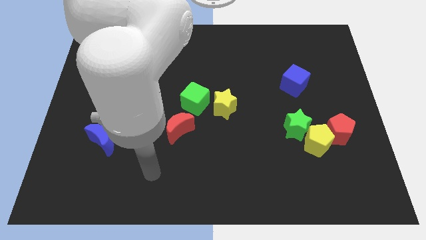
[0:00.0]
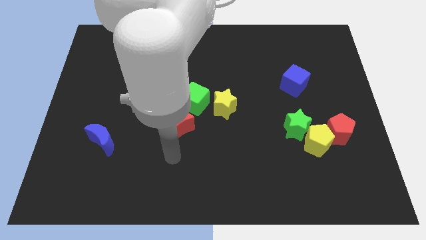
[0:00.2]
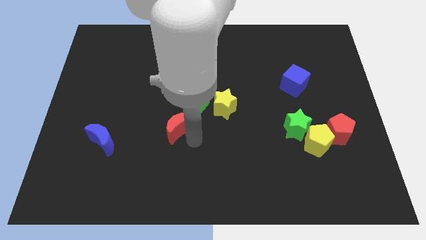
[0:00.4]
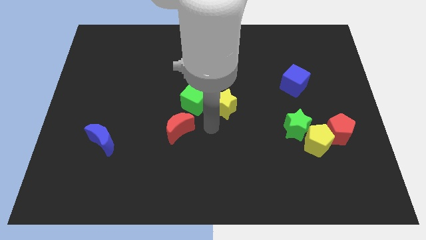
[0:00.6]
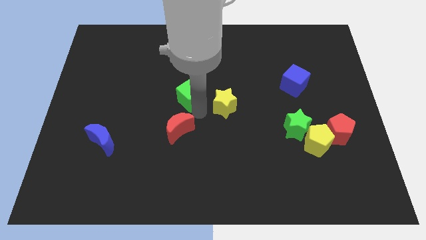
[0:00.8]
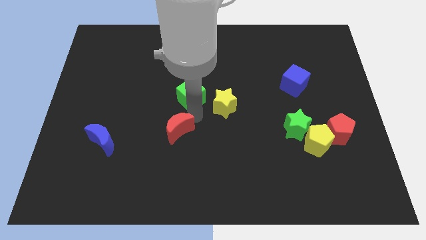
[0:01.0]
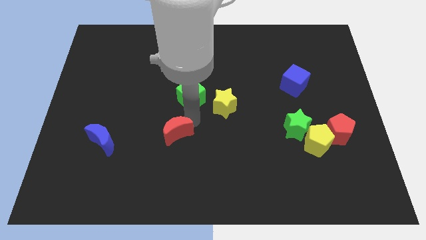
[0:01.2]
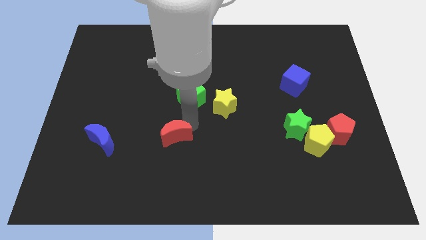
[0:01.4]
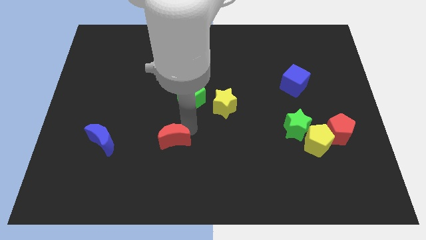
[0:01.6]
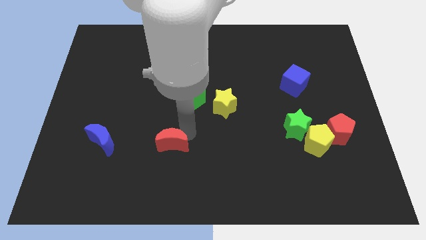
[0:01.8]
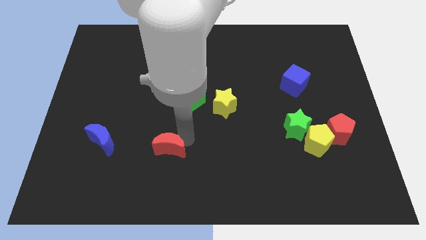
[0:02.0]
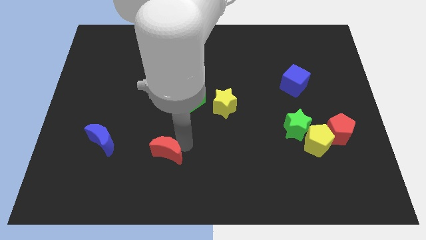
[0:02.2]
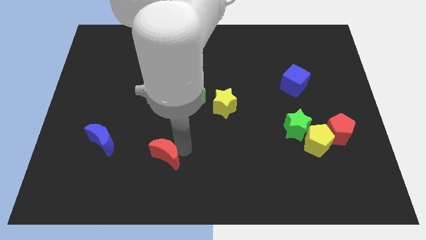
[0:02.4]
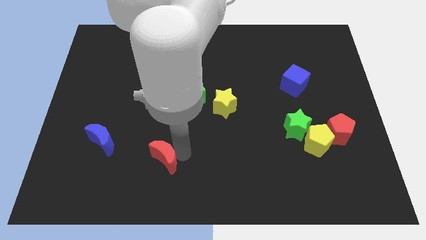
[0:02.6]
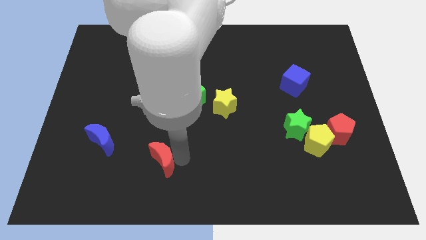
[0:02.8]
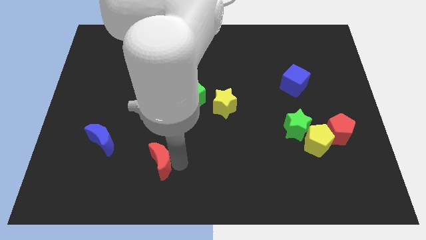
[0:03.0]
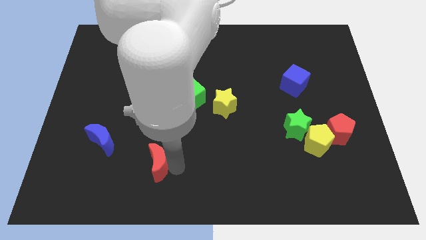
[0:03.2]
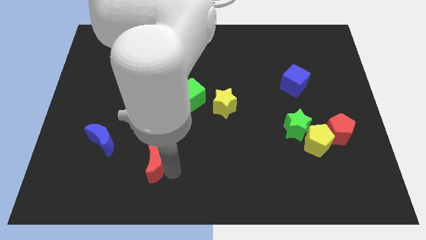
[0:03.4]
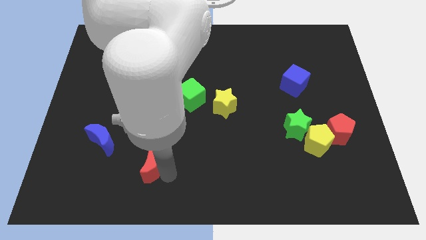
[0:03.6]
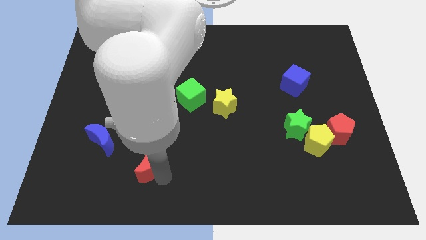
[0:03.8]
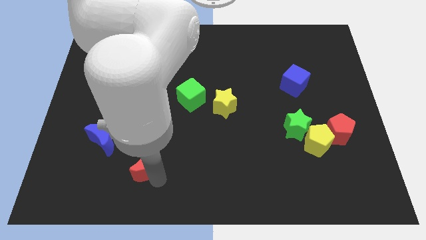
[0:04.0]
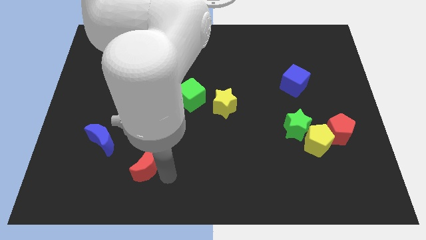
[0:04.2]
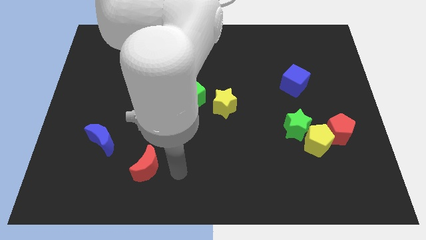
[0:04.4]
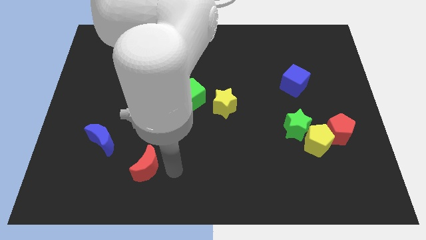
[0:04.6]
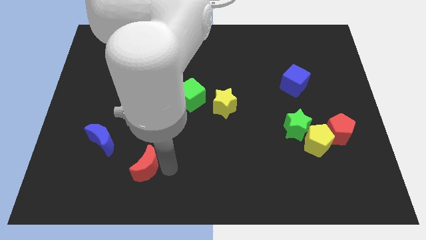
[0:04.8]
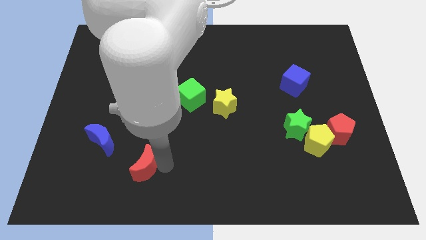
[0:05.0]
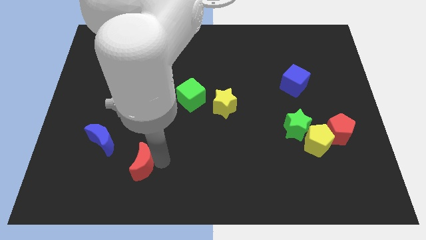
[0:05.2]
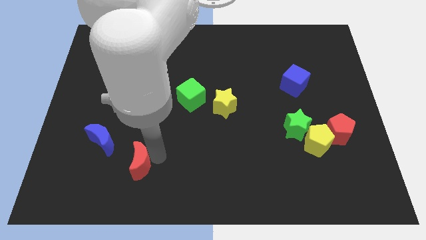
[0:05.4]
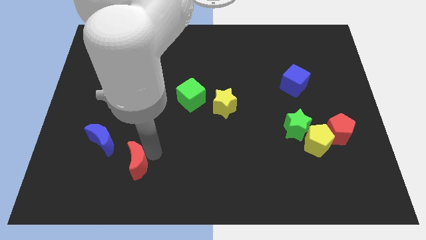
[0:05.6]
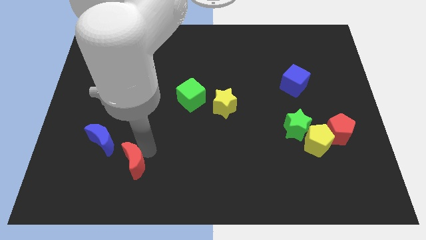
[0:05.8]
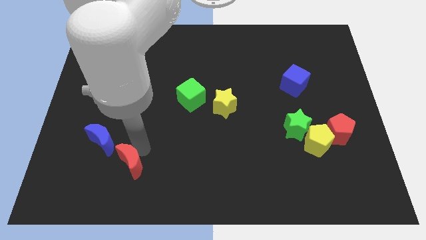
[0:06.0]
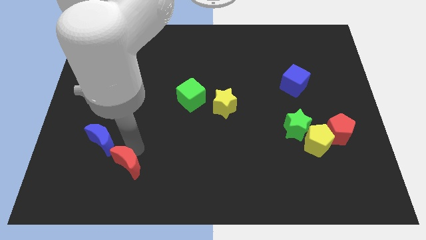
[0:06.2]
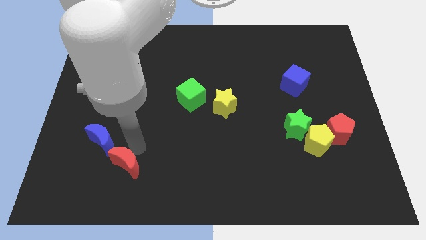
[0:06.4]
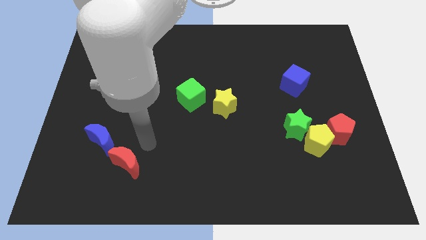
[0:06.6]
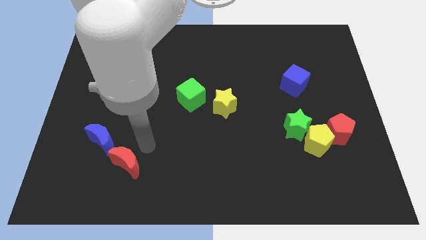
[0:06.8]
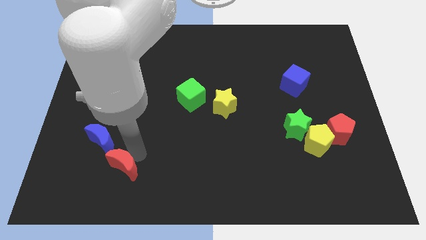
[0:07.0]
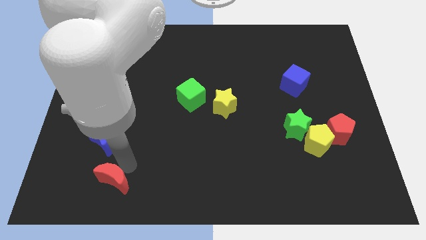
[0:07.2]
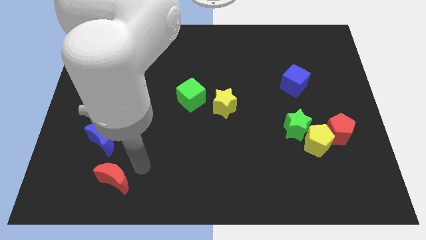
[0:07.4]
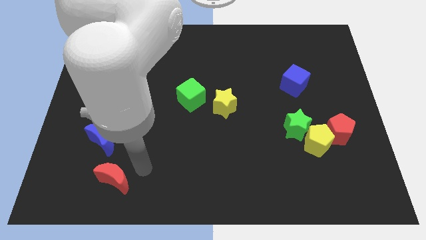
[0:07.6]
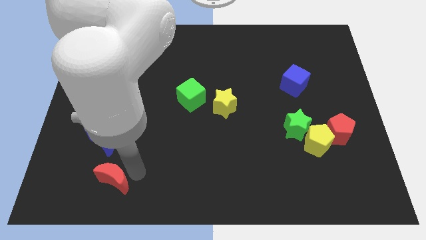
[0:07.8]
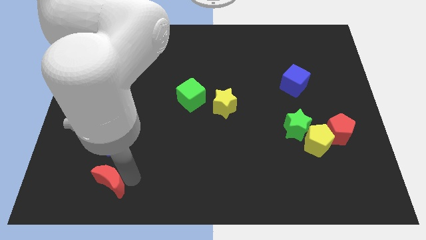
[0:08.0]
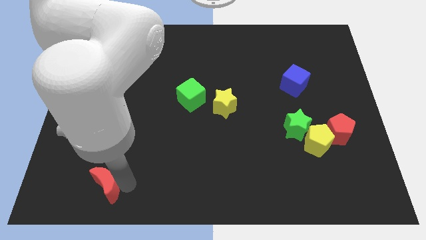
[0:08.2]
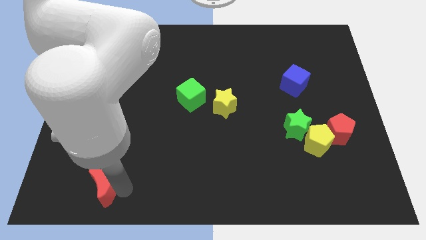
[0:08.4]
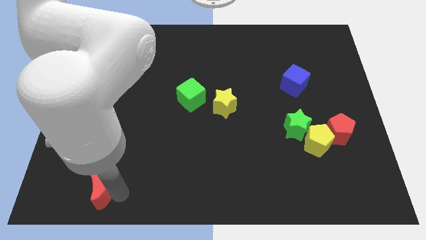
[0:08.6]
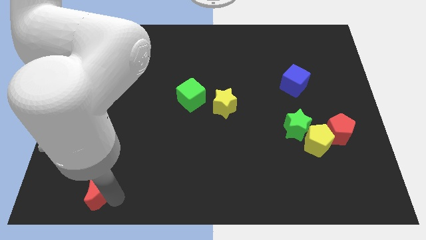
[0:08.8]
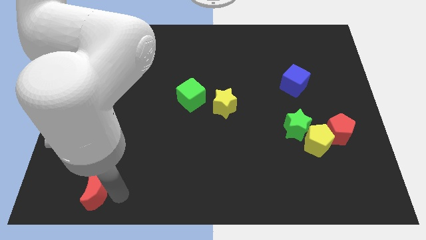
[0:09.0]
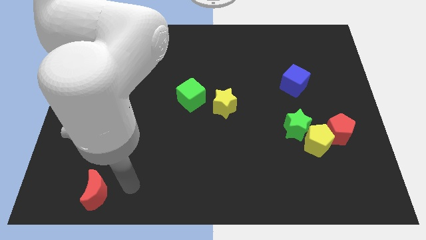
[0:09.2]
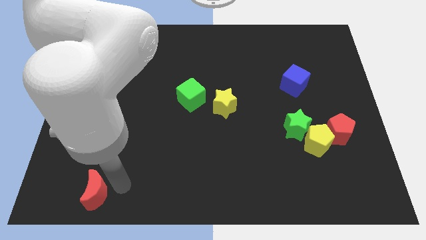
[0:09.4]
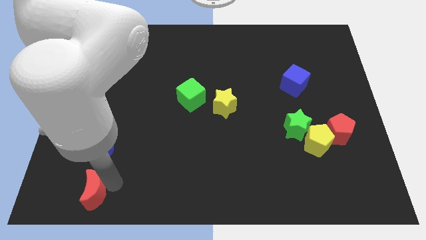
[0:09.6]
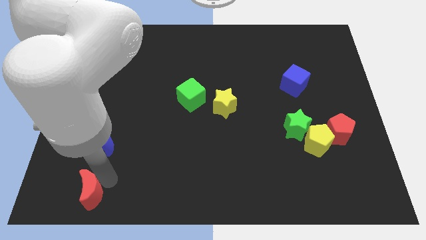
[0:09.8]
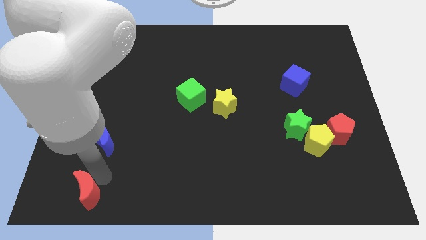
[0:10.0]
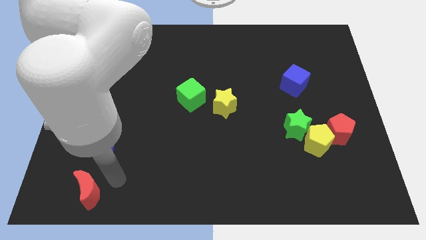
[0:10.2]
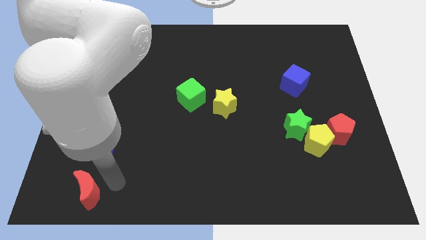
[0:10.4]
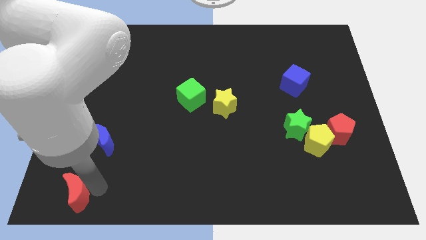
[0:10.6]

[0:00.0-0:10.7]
slide the red moon to the bottom left corner

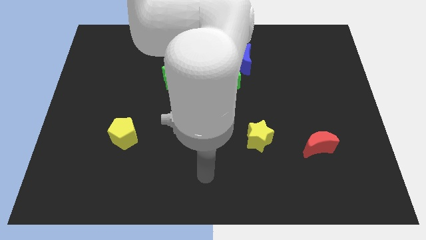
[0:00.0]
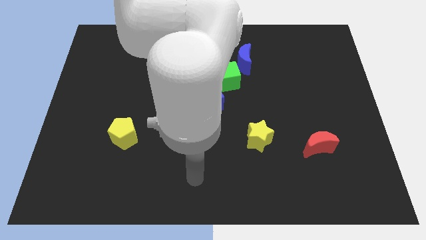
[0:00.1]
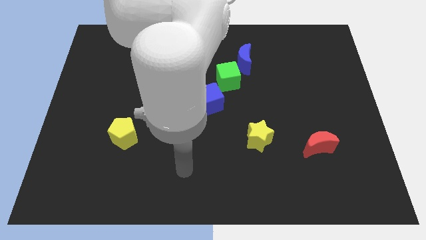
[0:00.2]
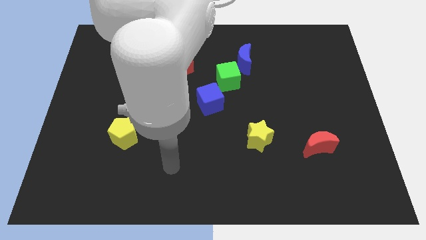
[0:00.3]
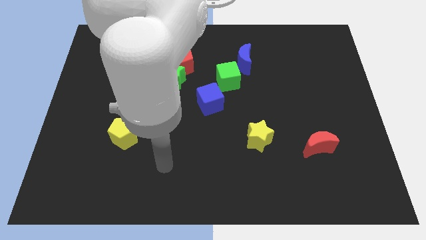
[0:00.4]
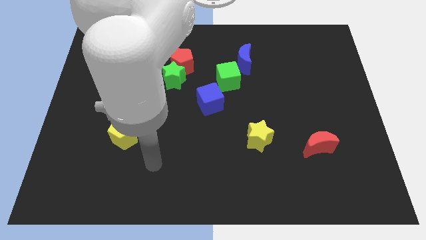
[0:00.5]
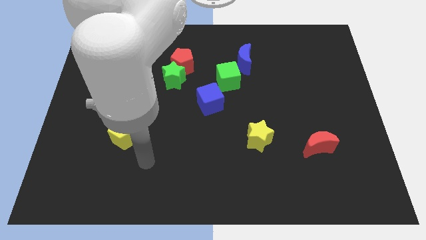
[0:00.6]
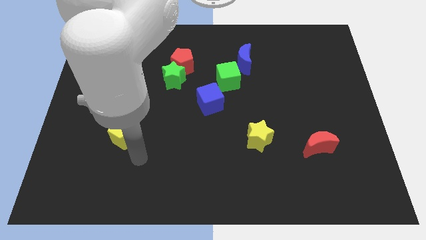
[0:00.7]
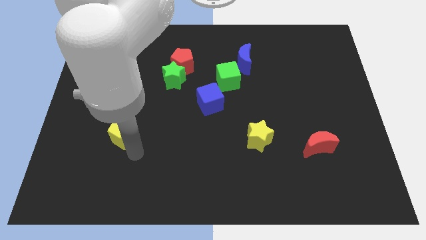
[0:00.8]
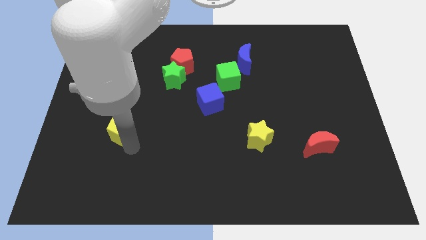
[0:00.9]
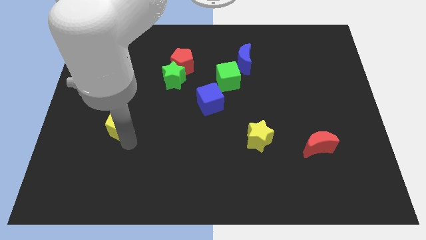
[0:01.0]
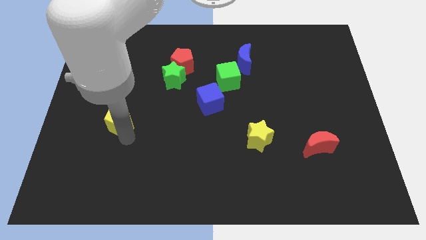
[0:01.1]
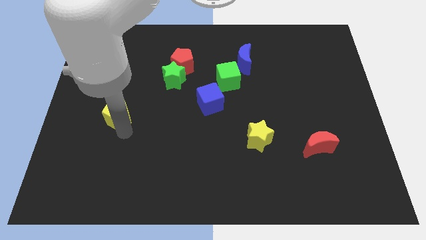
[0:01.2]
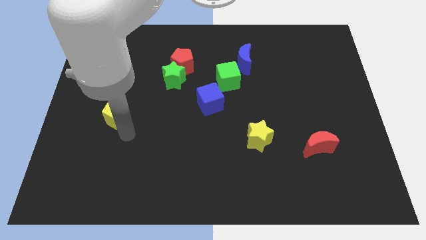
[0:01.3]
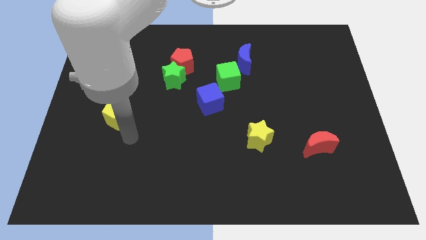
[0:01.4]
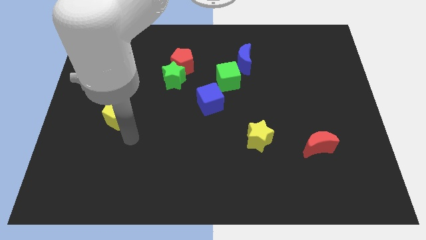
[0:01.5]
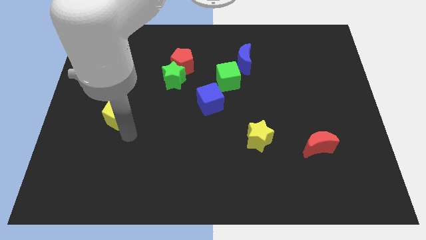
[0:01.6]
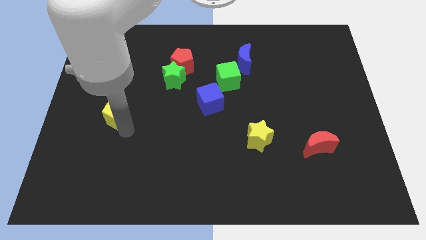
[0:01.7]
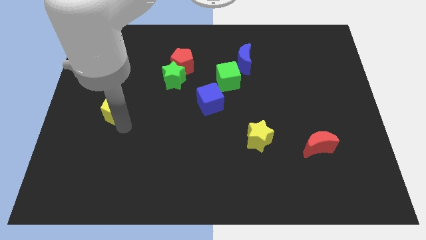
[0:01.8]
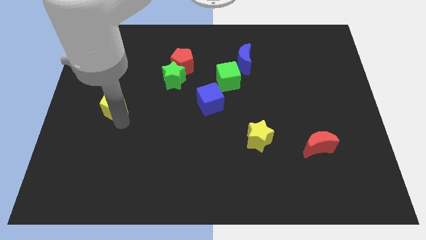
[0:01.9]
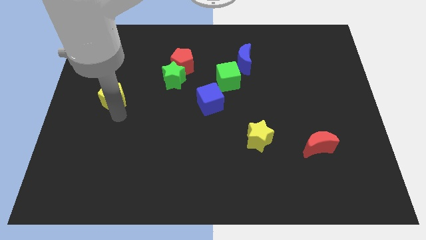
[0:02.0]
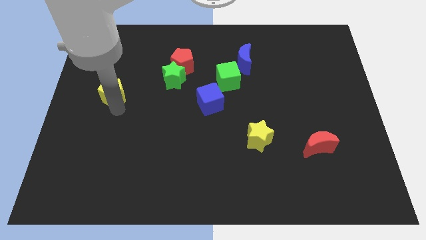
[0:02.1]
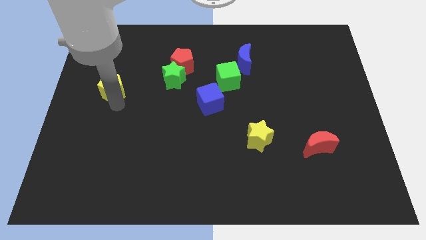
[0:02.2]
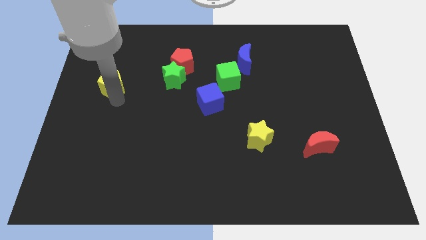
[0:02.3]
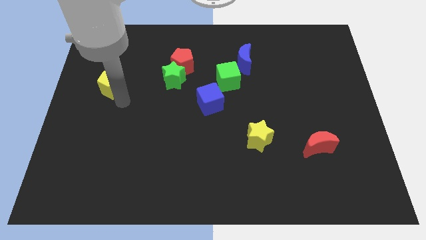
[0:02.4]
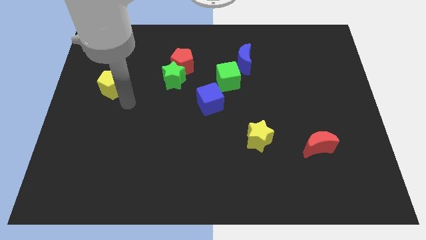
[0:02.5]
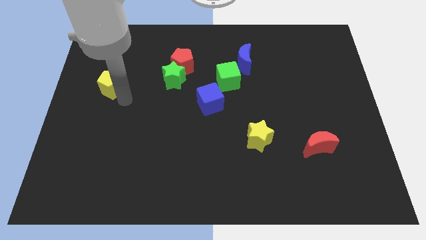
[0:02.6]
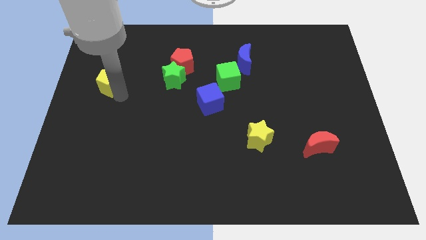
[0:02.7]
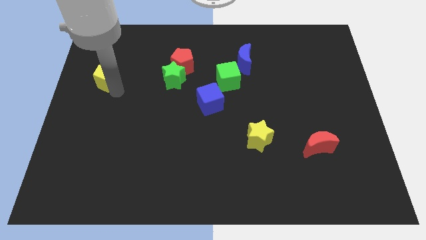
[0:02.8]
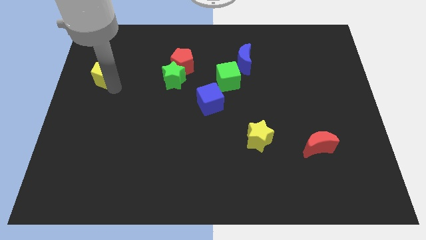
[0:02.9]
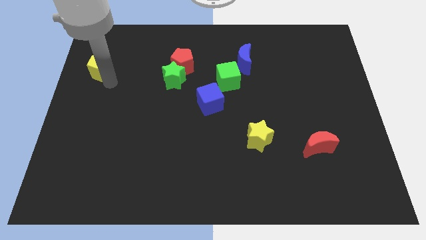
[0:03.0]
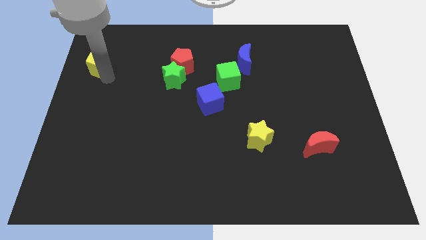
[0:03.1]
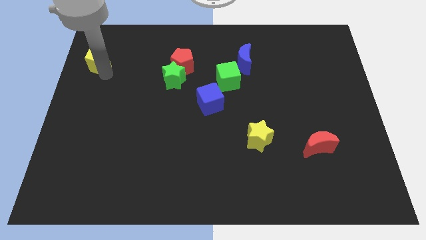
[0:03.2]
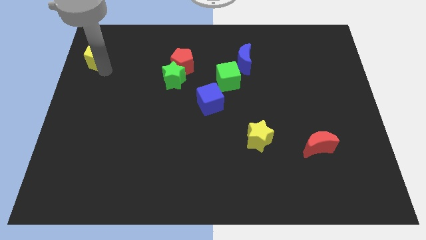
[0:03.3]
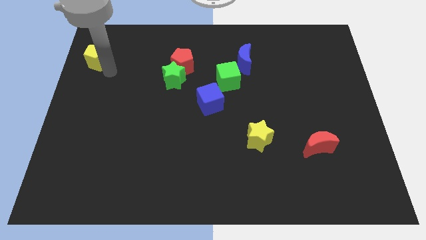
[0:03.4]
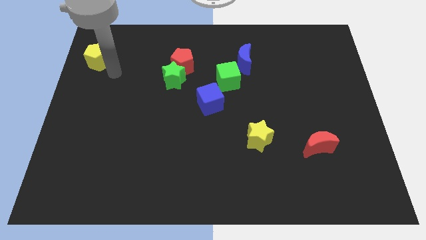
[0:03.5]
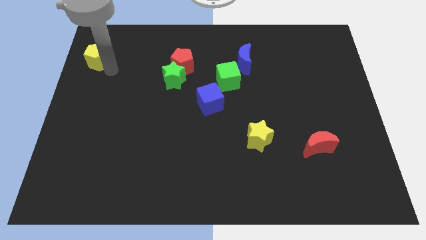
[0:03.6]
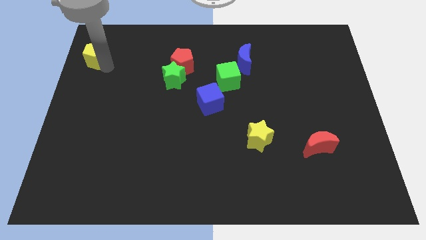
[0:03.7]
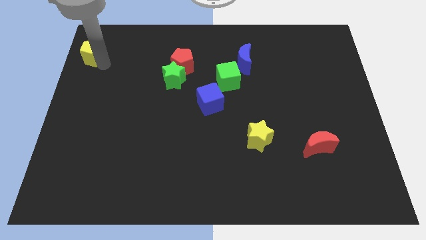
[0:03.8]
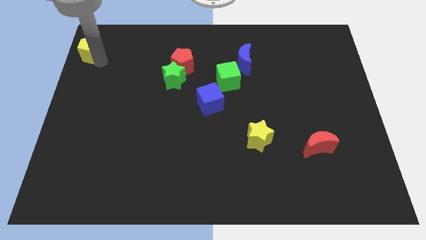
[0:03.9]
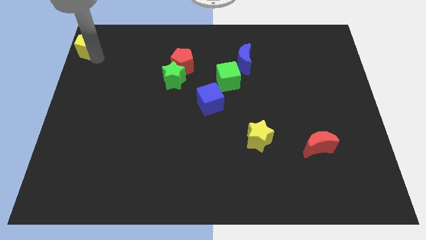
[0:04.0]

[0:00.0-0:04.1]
push the yellow pentagon to the top left
